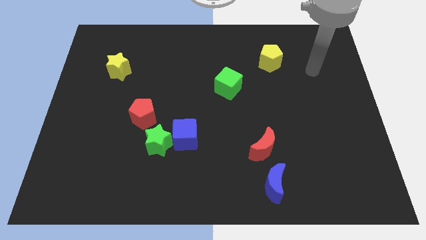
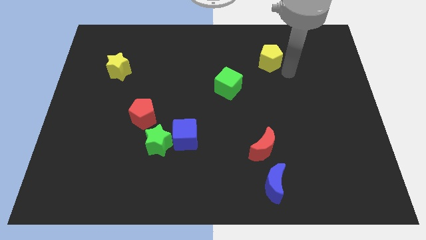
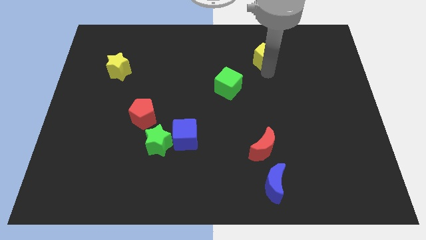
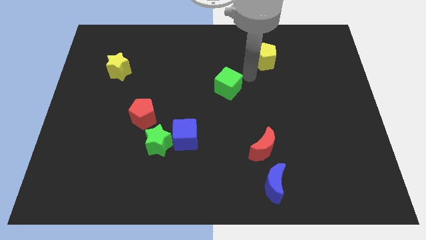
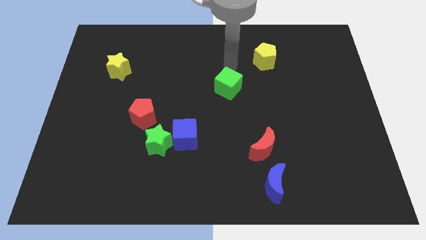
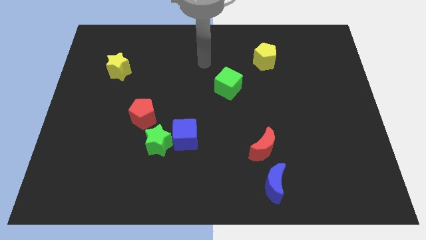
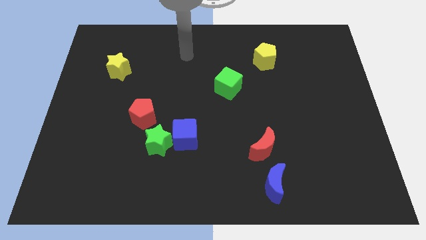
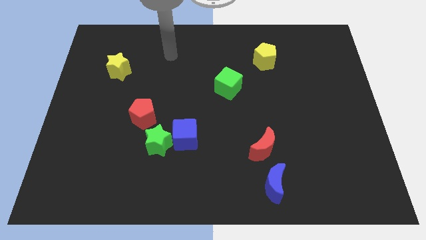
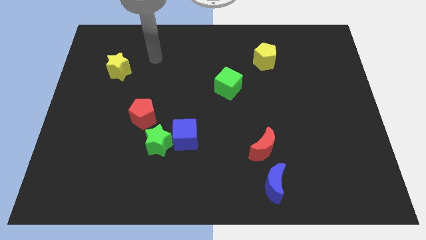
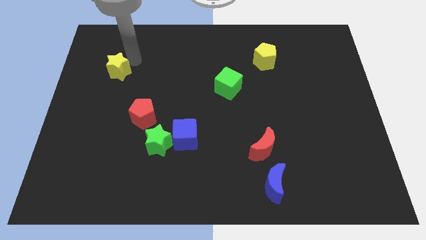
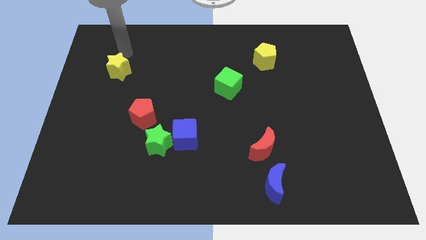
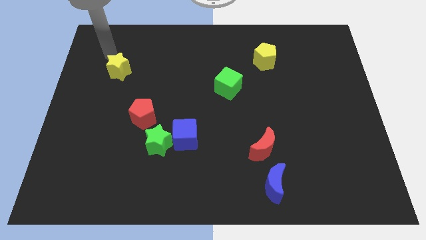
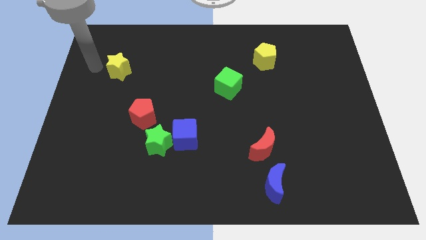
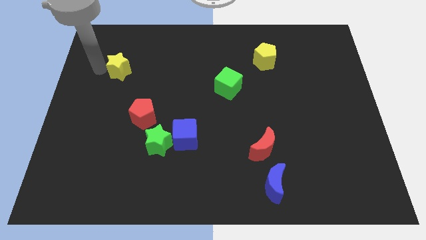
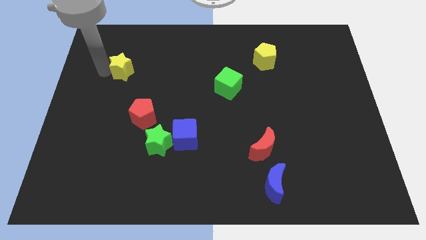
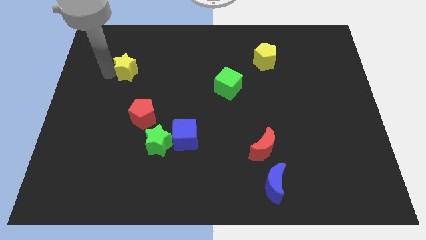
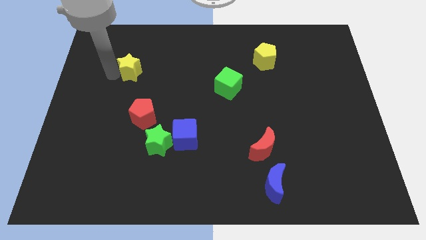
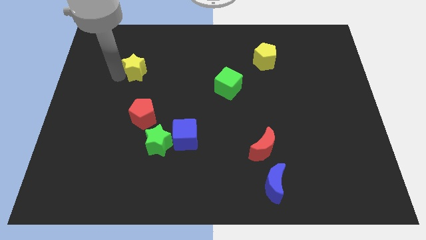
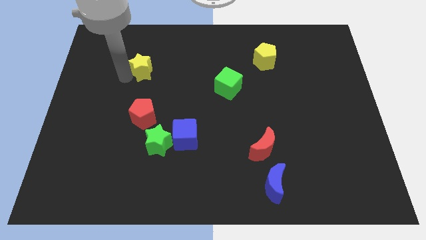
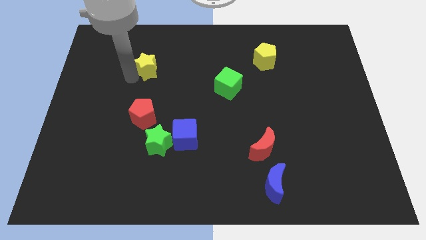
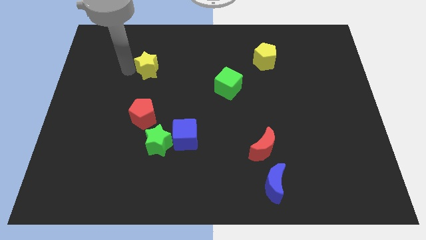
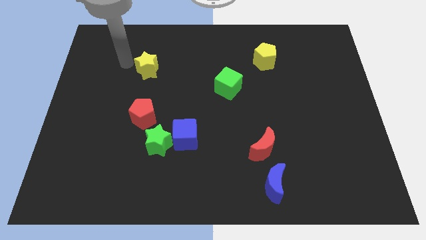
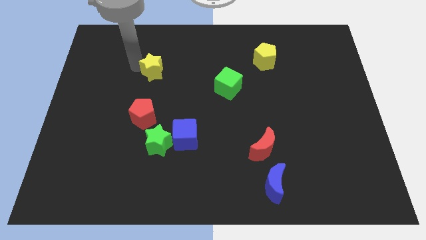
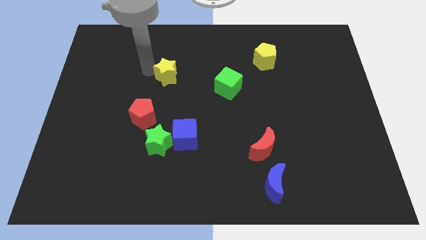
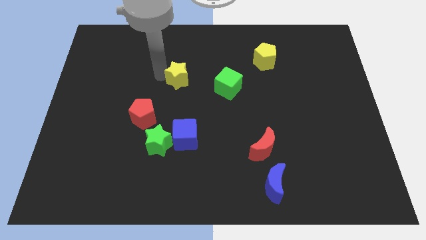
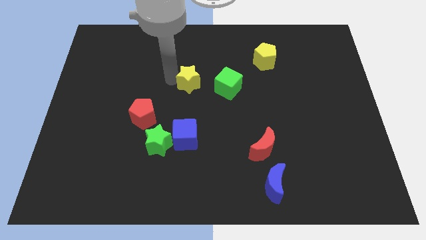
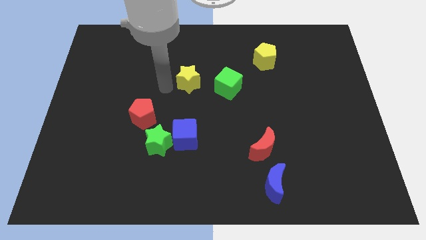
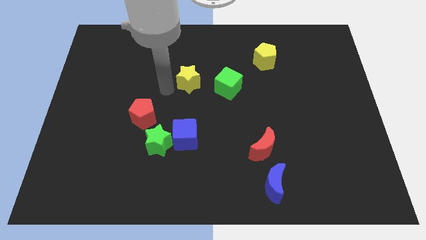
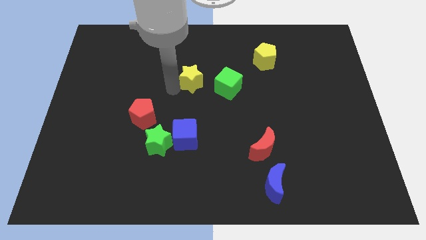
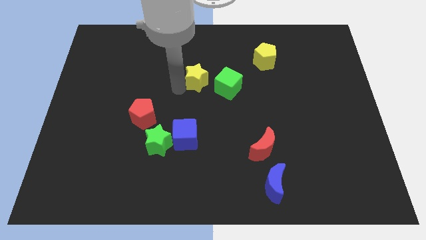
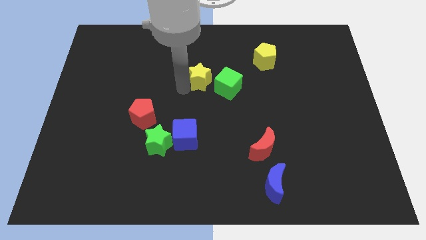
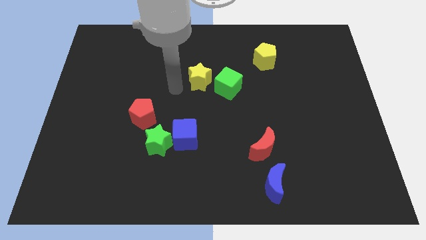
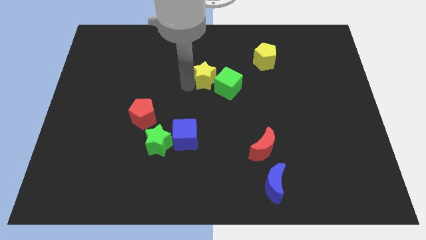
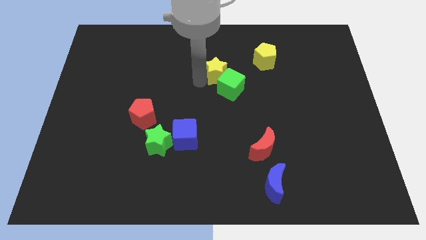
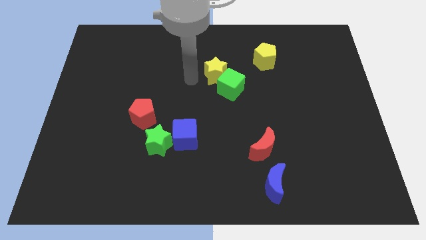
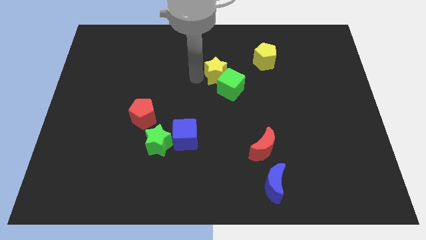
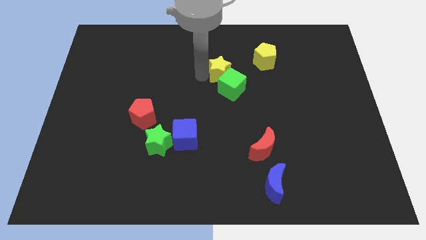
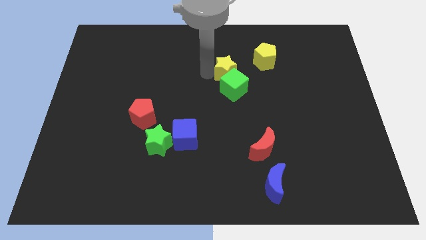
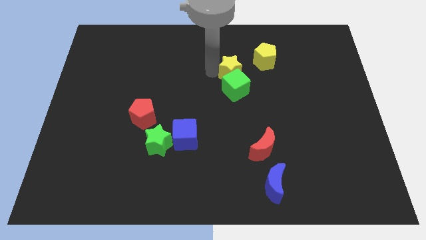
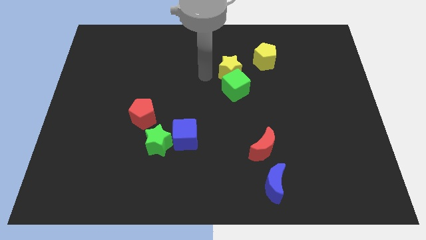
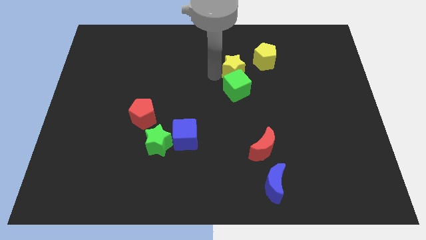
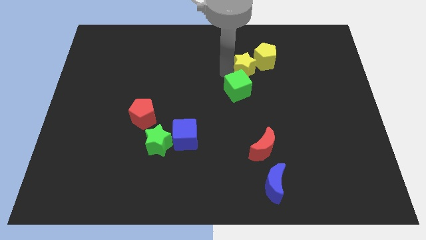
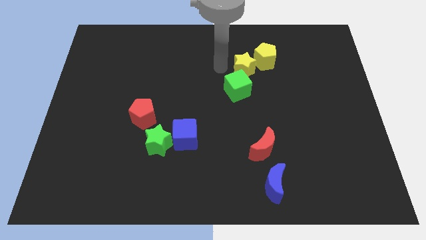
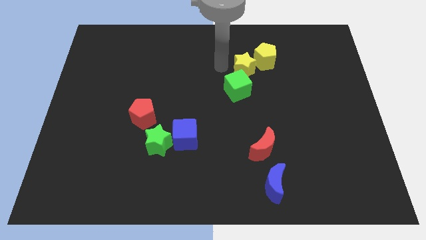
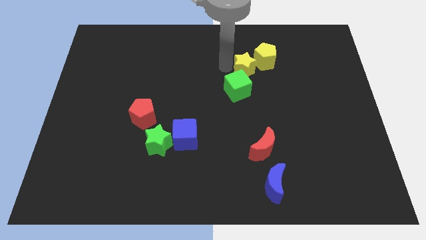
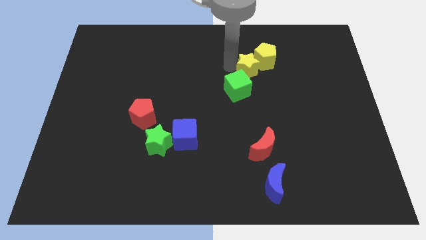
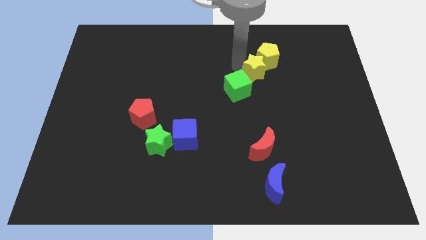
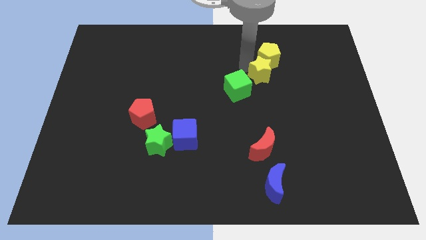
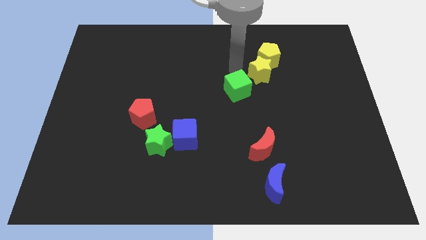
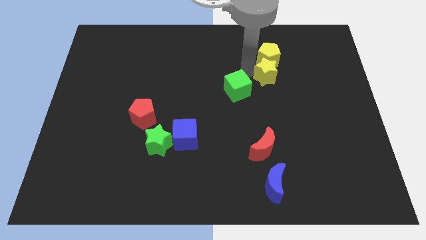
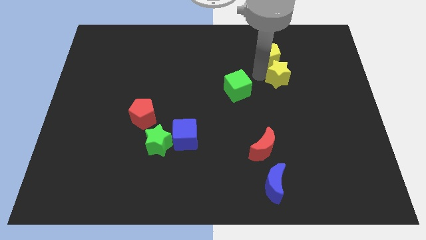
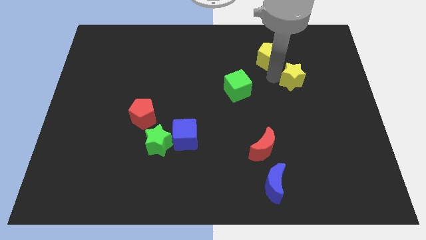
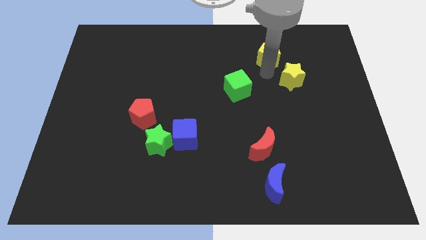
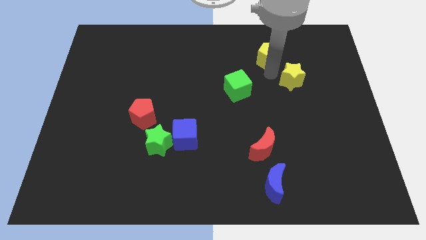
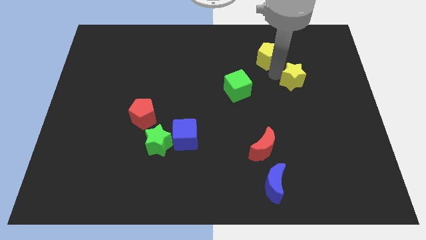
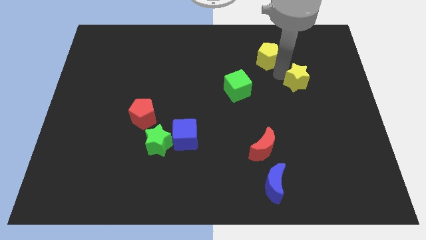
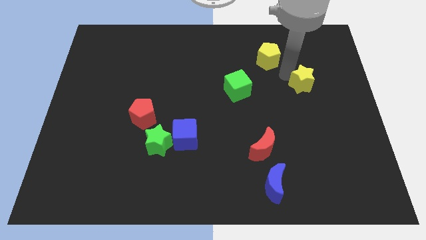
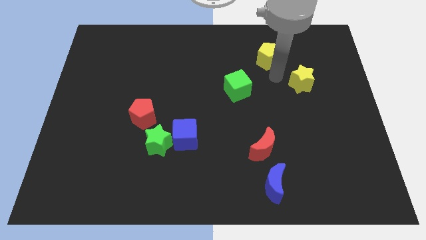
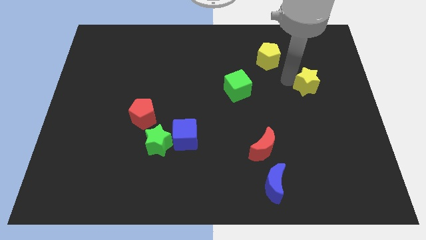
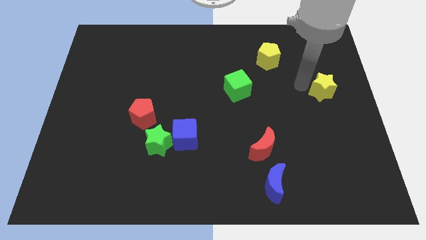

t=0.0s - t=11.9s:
slide the yellow star to the center right
